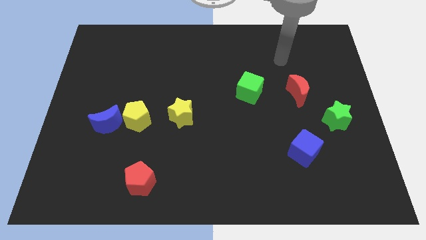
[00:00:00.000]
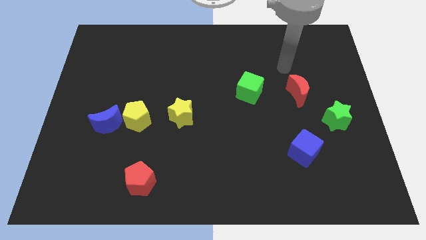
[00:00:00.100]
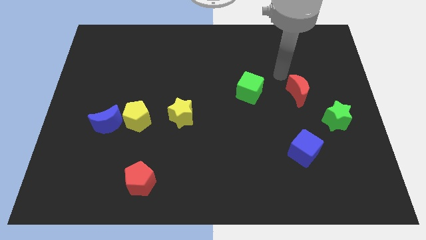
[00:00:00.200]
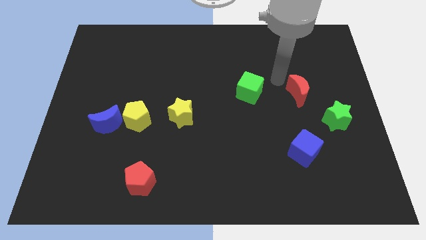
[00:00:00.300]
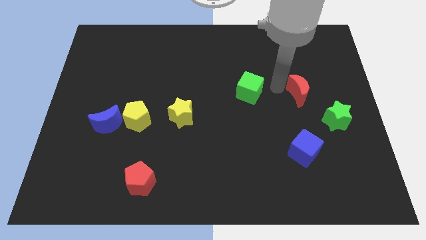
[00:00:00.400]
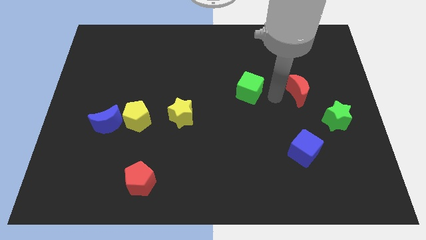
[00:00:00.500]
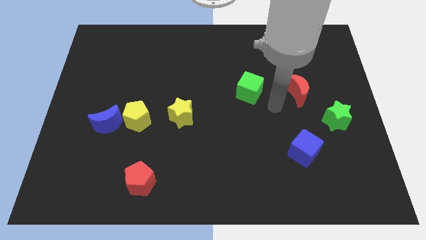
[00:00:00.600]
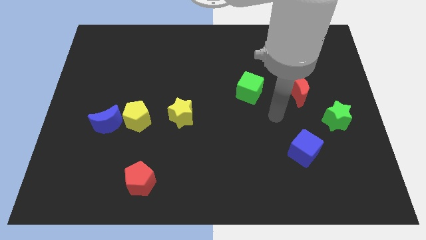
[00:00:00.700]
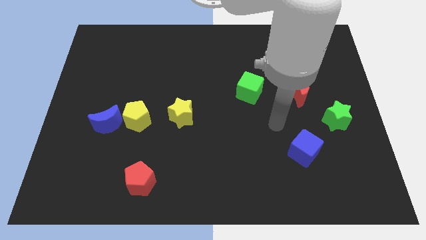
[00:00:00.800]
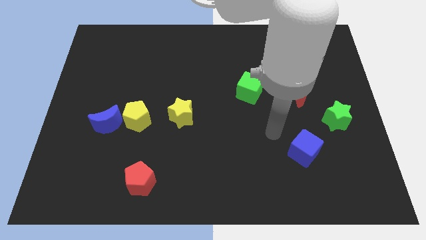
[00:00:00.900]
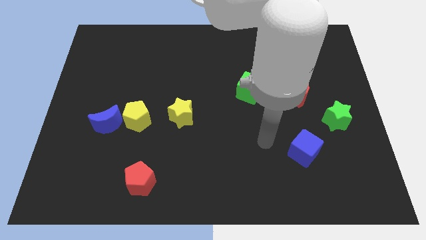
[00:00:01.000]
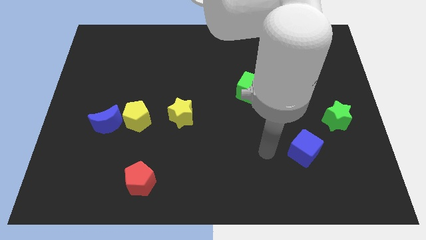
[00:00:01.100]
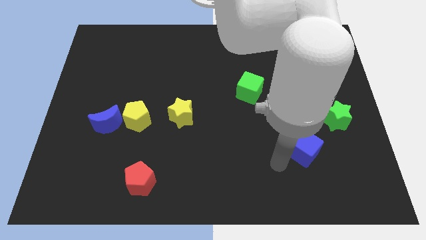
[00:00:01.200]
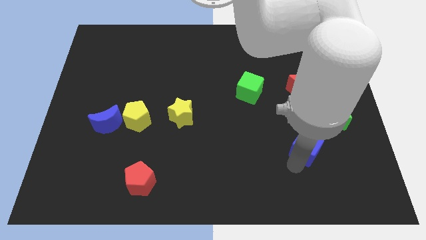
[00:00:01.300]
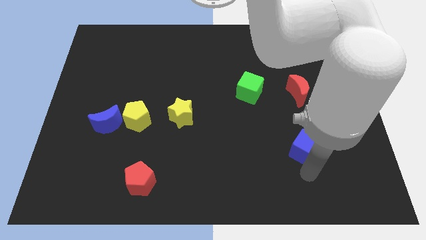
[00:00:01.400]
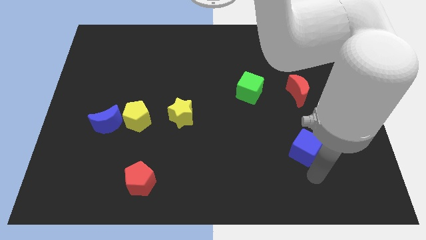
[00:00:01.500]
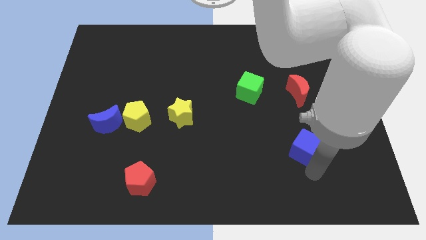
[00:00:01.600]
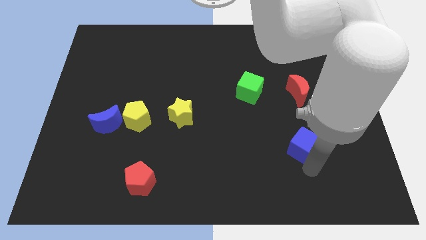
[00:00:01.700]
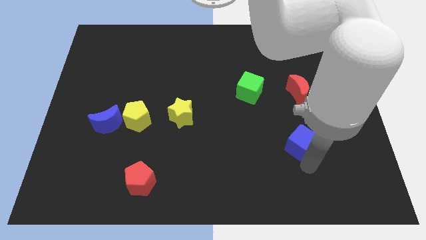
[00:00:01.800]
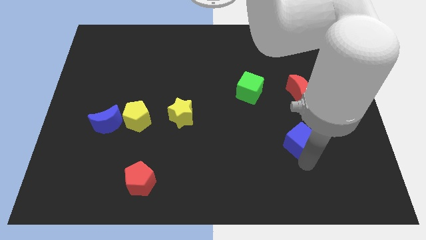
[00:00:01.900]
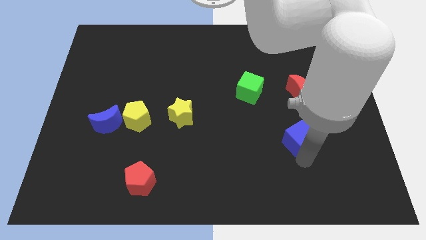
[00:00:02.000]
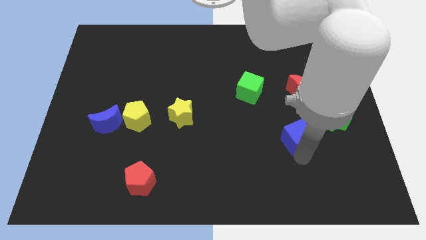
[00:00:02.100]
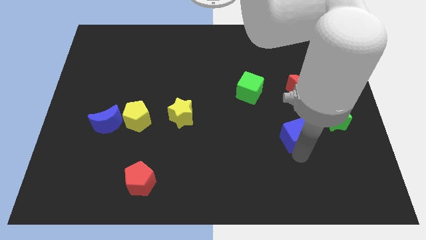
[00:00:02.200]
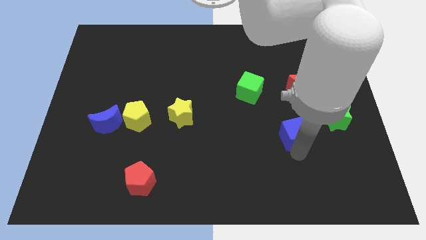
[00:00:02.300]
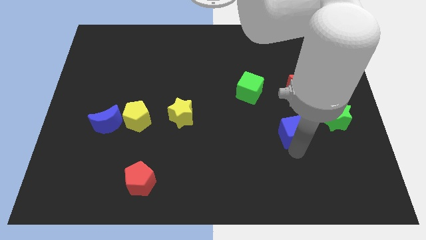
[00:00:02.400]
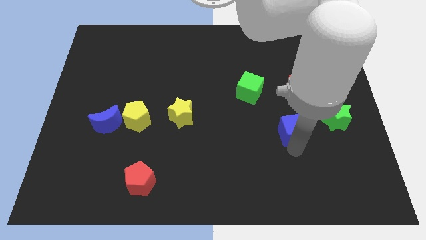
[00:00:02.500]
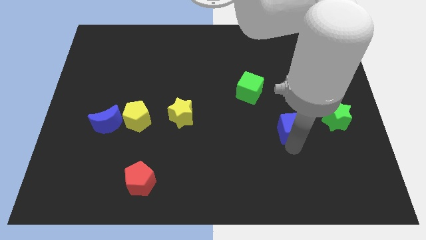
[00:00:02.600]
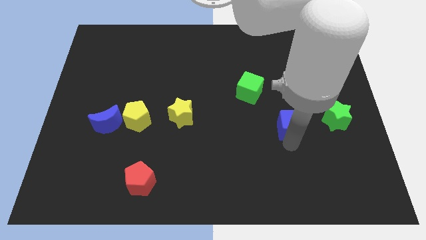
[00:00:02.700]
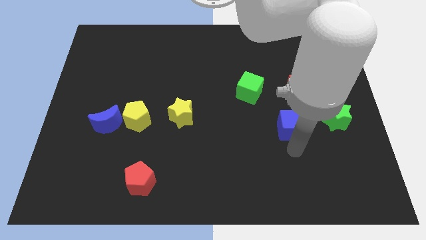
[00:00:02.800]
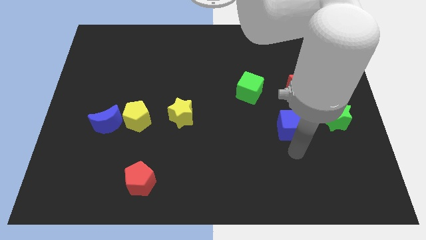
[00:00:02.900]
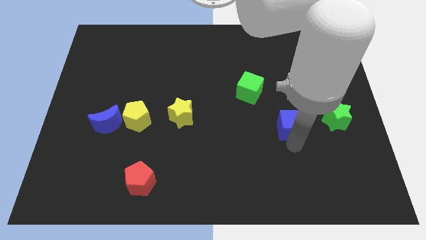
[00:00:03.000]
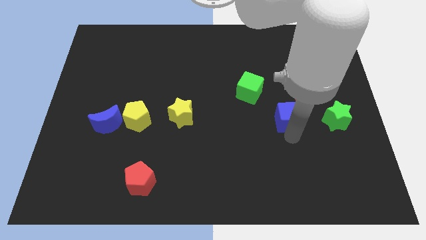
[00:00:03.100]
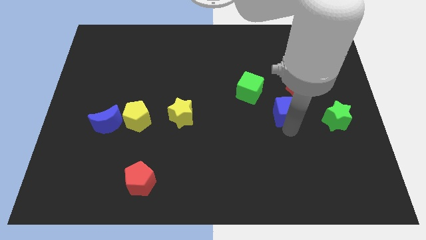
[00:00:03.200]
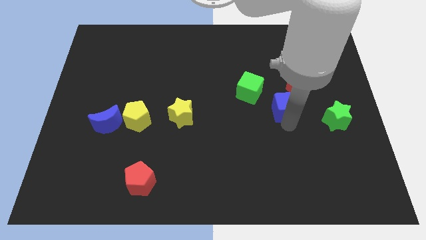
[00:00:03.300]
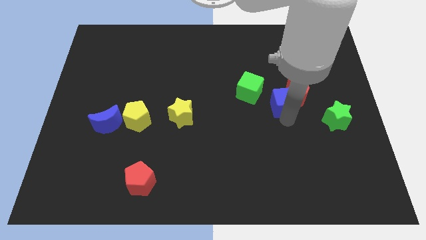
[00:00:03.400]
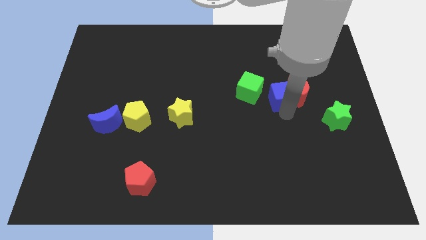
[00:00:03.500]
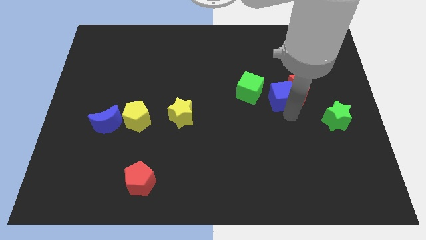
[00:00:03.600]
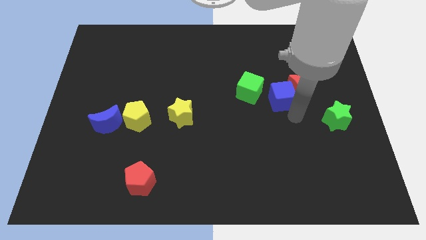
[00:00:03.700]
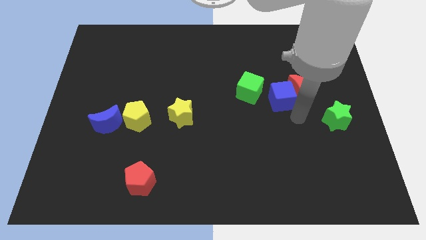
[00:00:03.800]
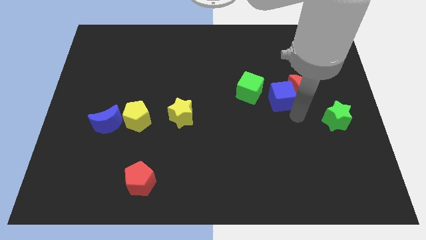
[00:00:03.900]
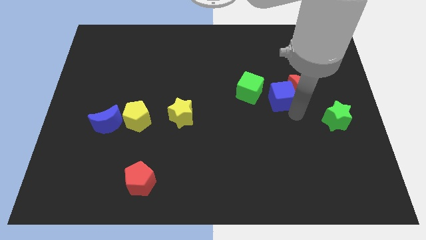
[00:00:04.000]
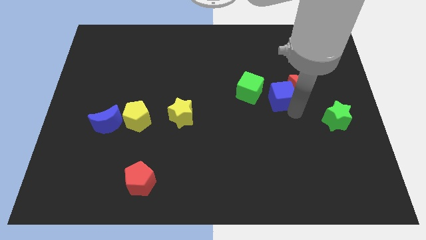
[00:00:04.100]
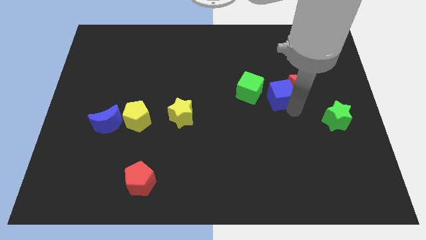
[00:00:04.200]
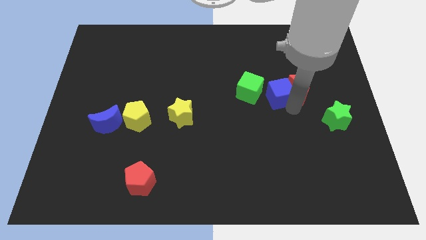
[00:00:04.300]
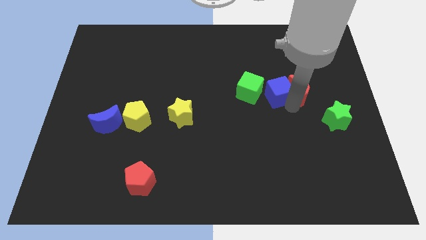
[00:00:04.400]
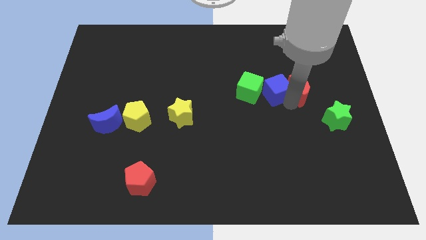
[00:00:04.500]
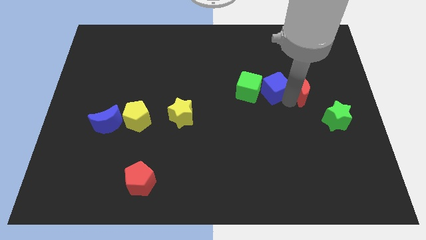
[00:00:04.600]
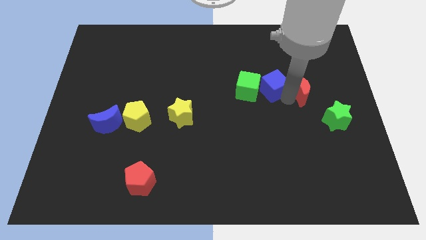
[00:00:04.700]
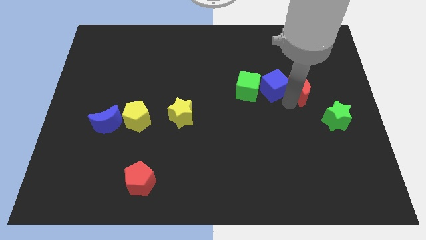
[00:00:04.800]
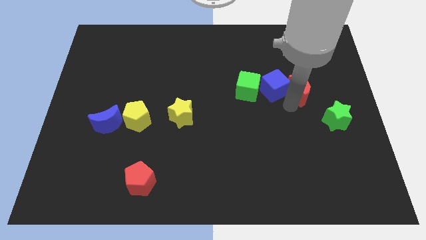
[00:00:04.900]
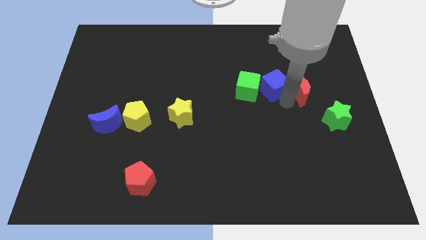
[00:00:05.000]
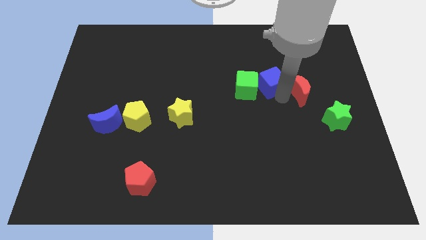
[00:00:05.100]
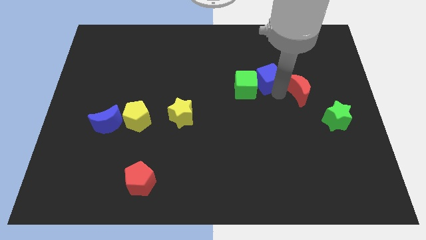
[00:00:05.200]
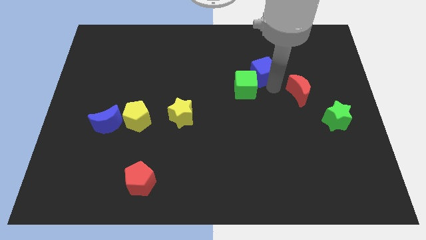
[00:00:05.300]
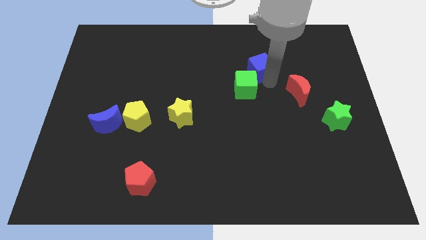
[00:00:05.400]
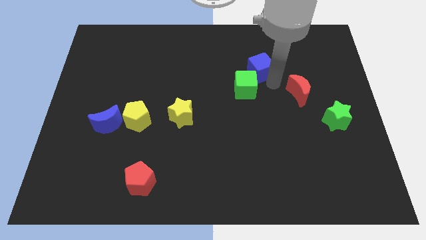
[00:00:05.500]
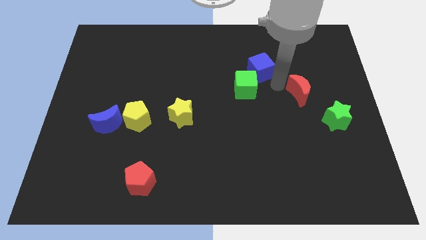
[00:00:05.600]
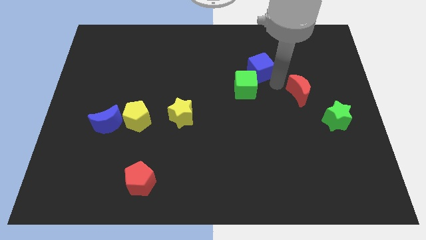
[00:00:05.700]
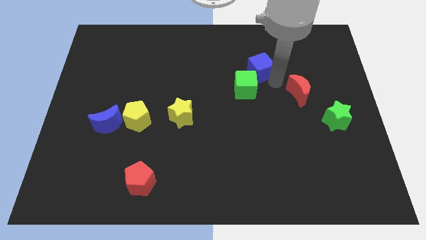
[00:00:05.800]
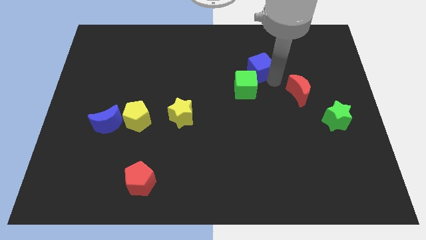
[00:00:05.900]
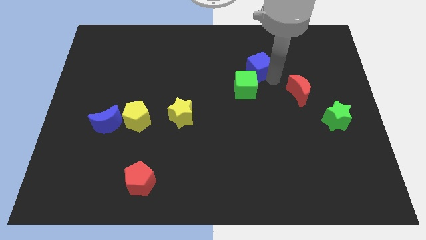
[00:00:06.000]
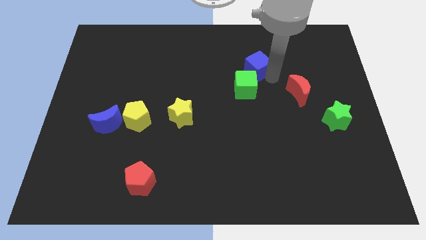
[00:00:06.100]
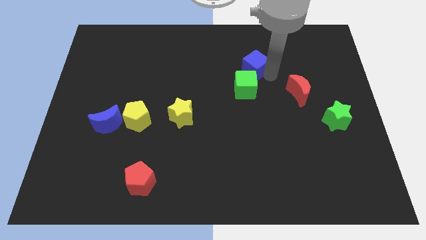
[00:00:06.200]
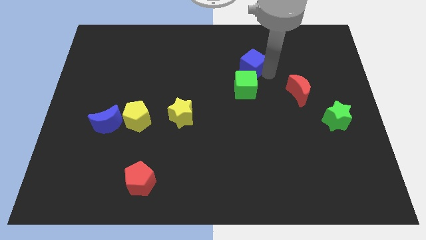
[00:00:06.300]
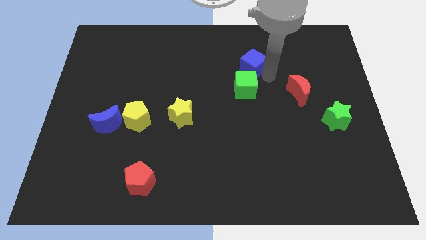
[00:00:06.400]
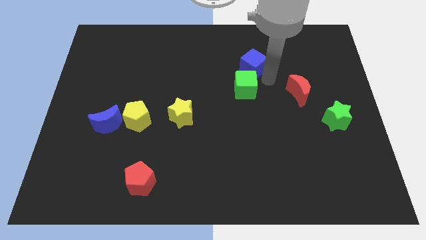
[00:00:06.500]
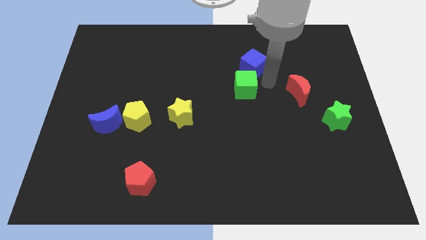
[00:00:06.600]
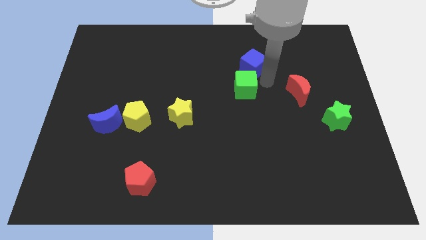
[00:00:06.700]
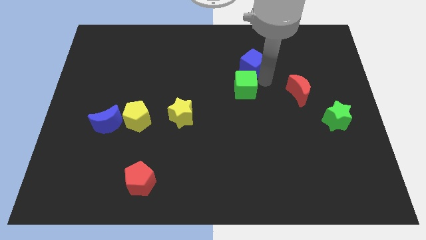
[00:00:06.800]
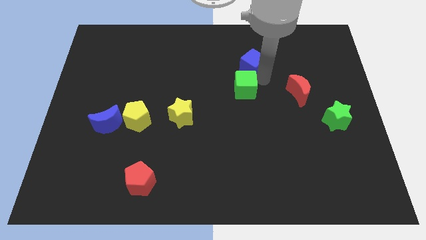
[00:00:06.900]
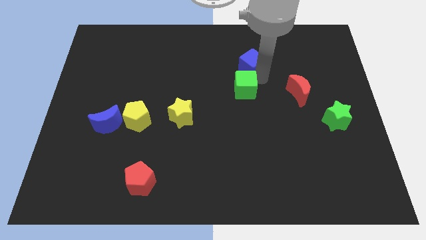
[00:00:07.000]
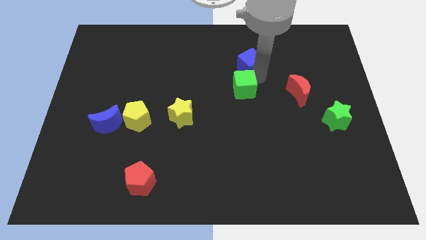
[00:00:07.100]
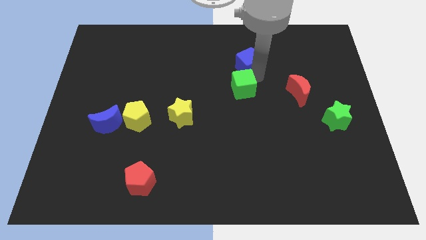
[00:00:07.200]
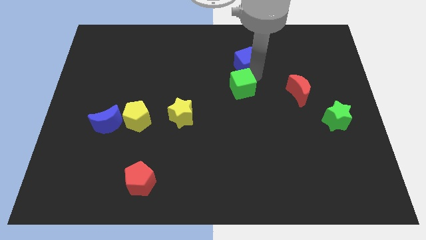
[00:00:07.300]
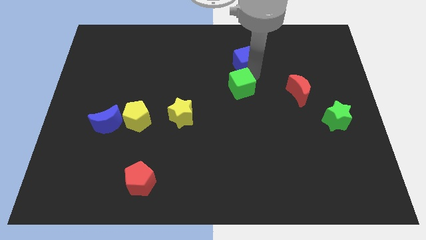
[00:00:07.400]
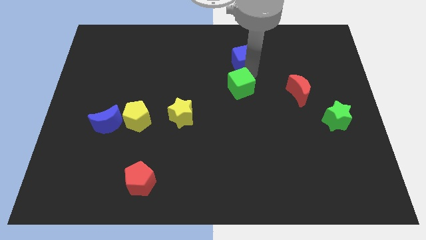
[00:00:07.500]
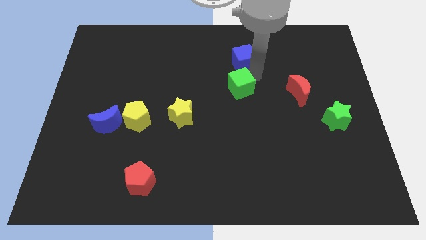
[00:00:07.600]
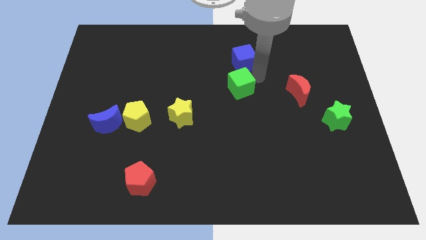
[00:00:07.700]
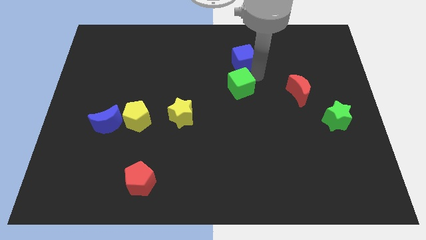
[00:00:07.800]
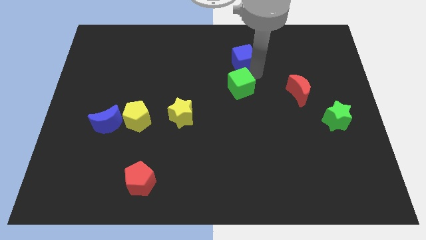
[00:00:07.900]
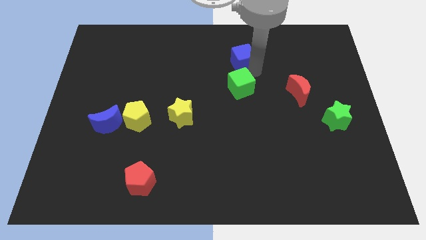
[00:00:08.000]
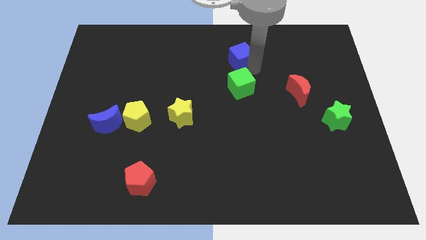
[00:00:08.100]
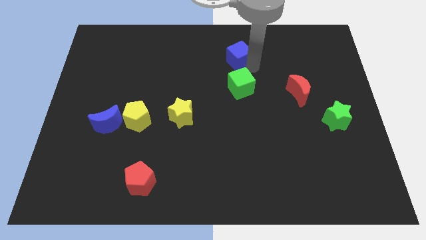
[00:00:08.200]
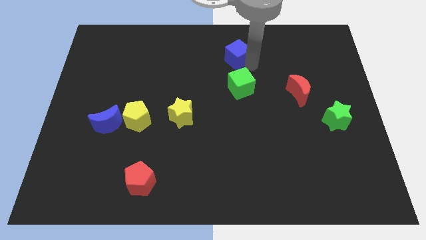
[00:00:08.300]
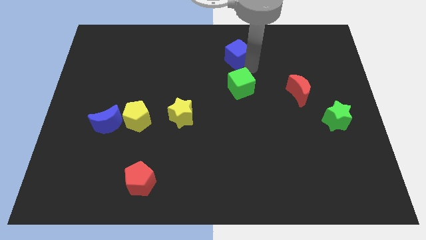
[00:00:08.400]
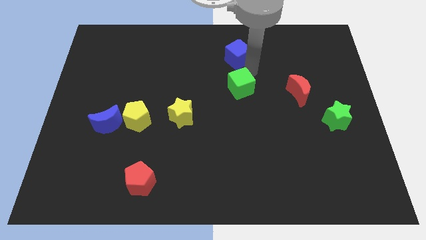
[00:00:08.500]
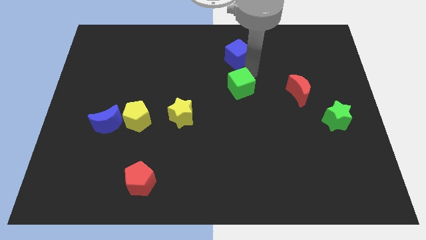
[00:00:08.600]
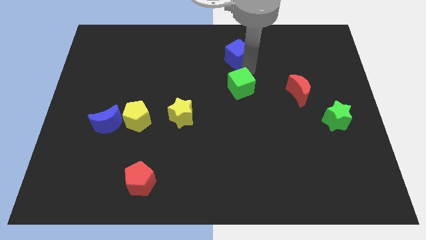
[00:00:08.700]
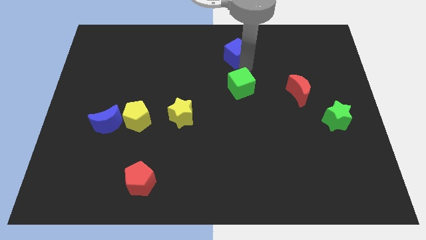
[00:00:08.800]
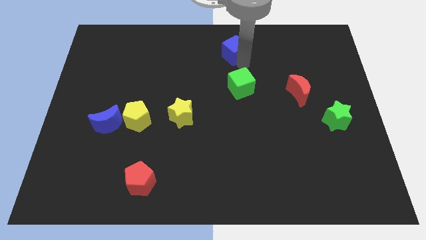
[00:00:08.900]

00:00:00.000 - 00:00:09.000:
move the blue cube to the towards your base
